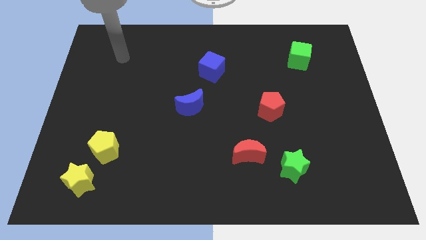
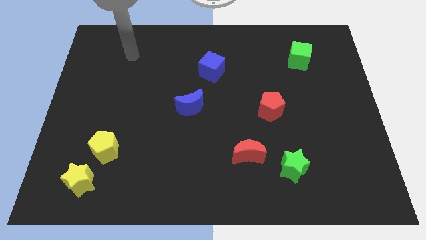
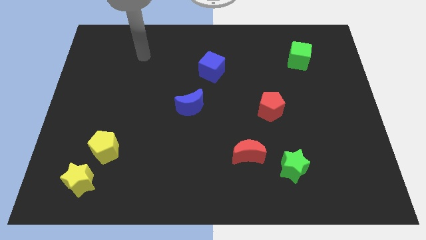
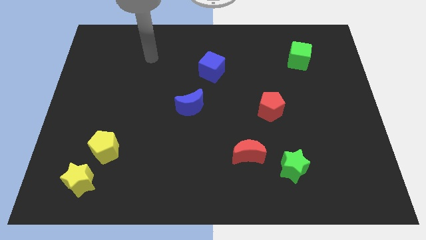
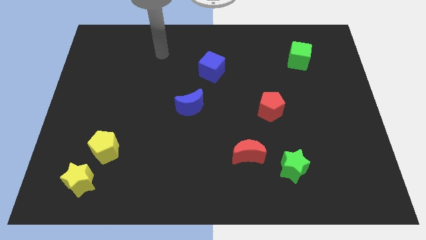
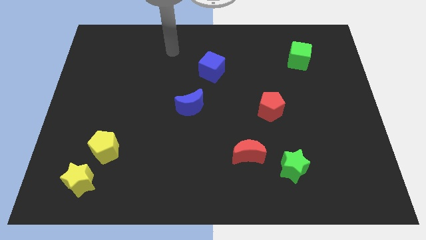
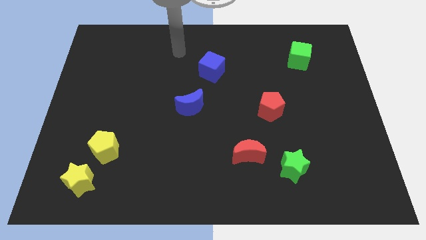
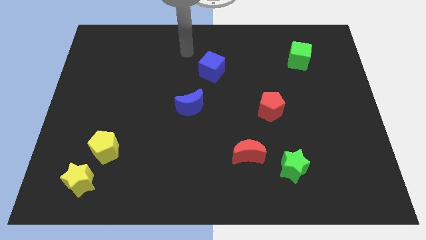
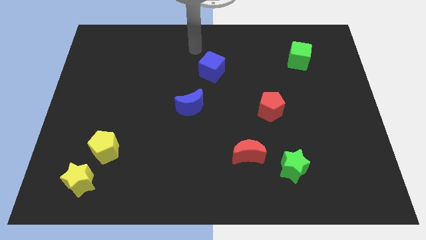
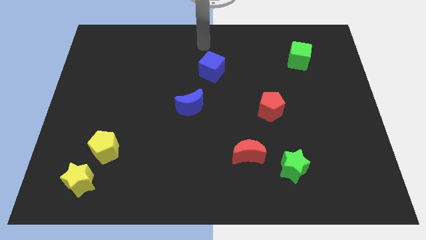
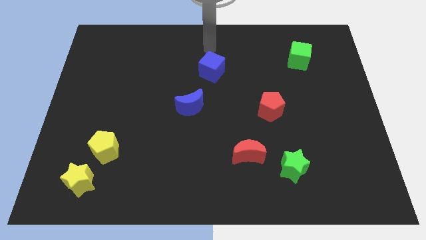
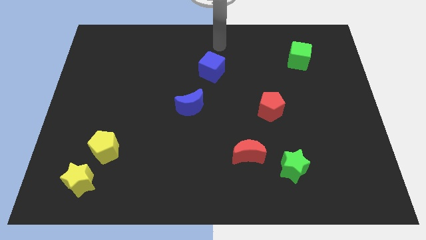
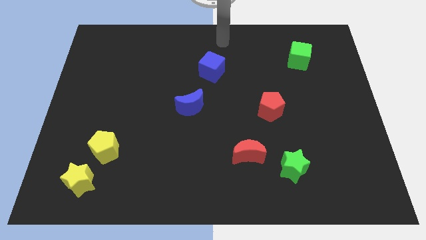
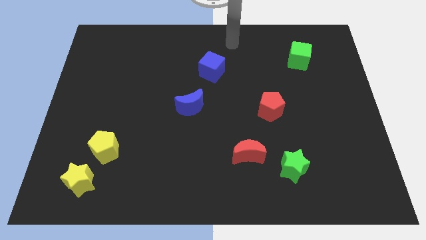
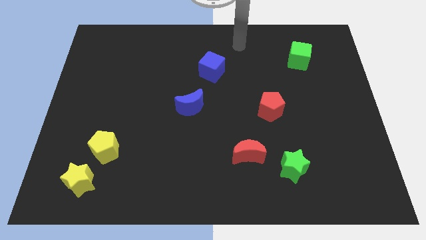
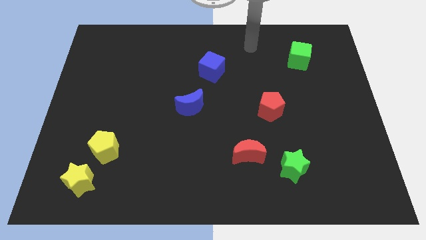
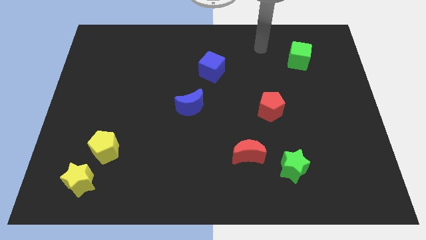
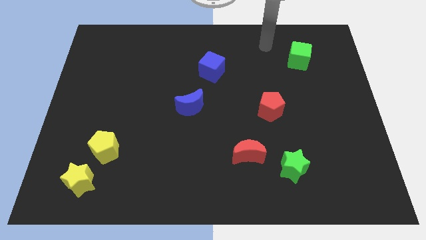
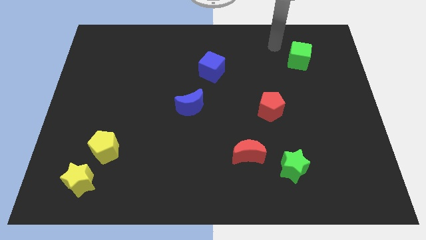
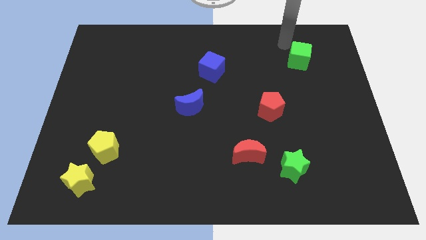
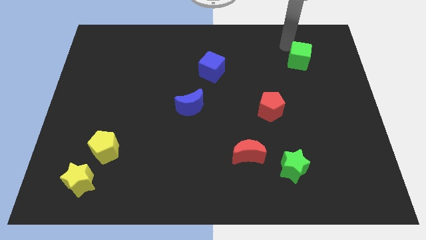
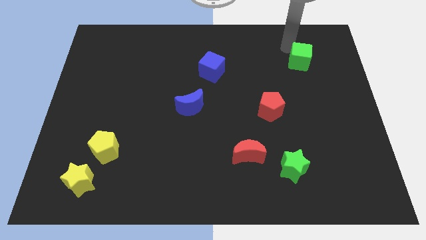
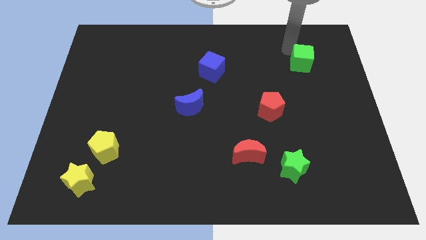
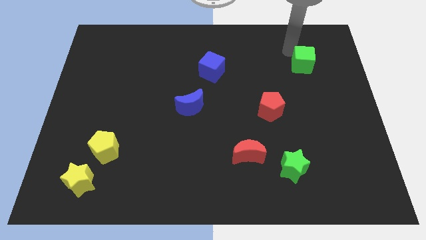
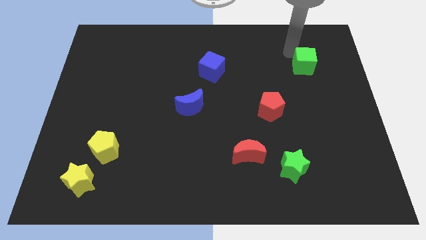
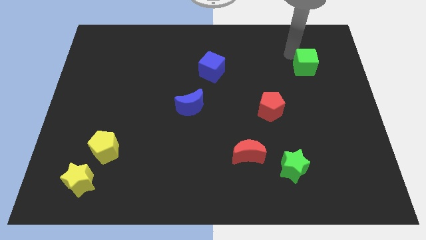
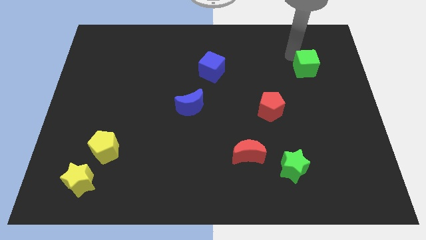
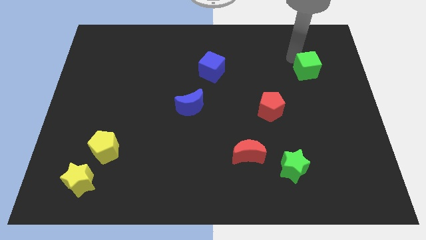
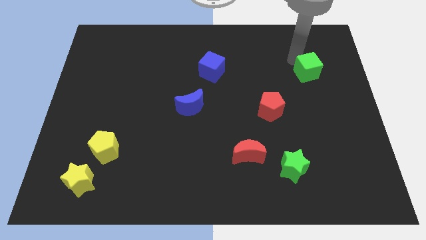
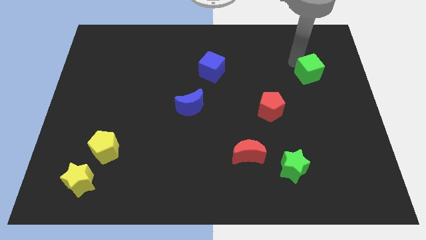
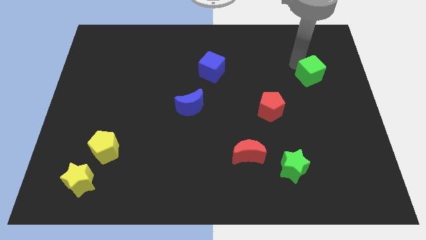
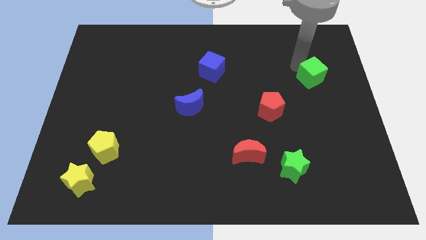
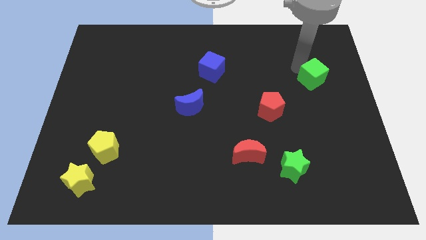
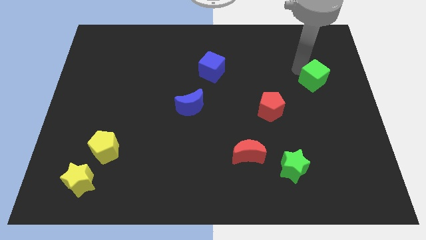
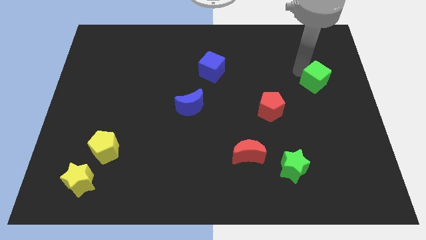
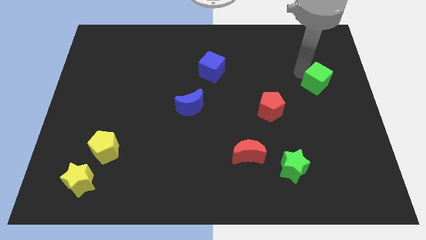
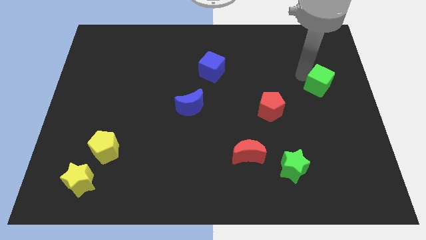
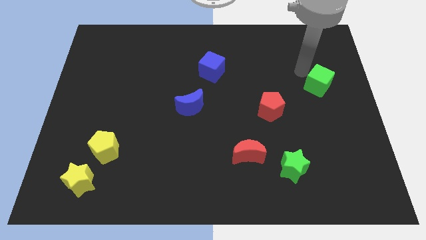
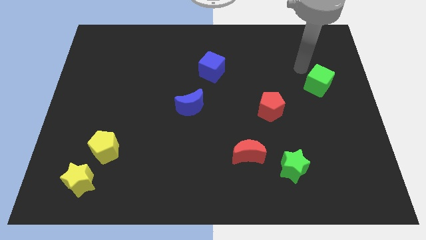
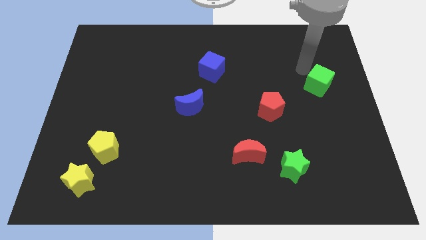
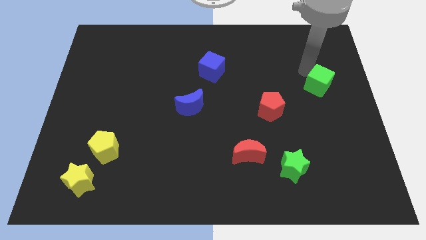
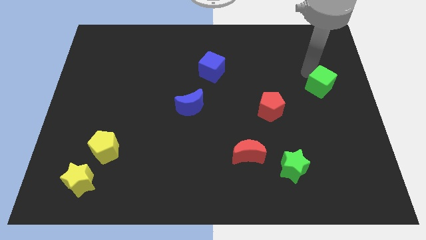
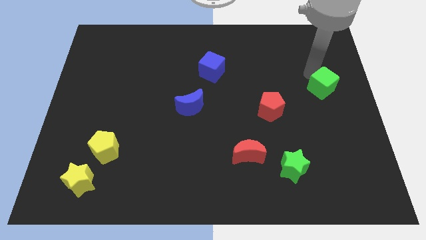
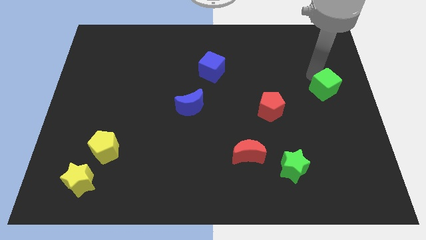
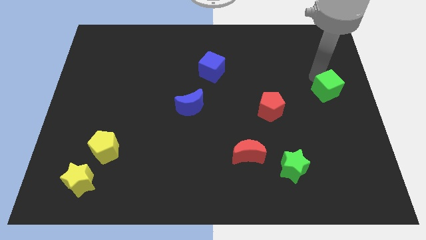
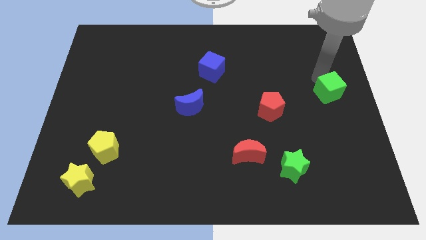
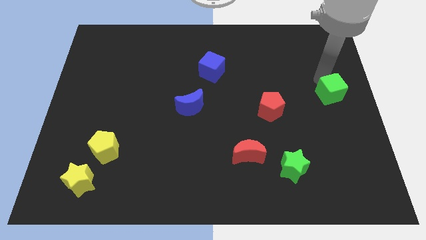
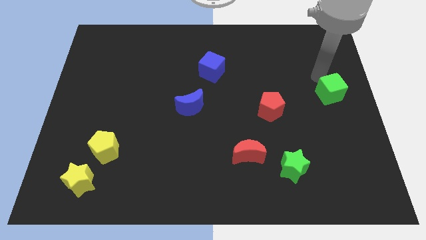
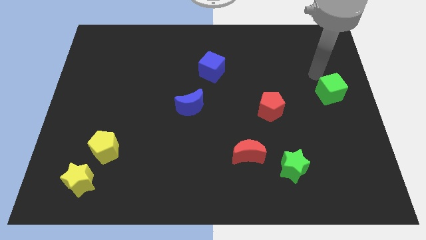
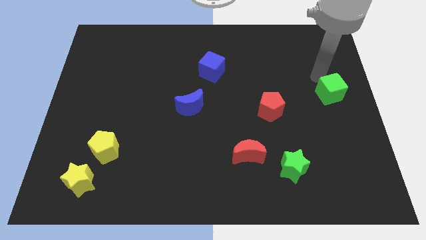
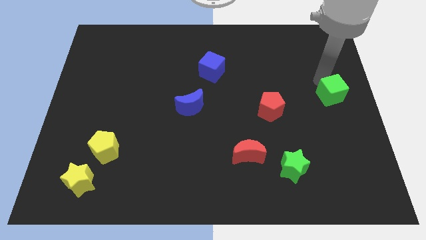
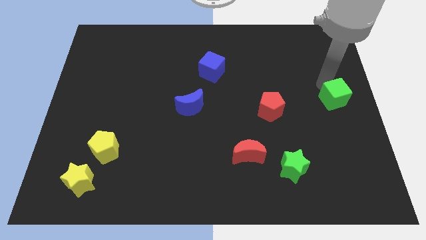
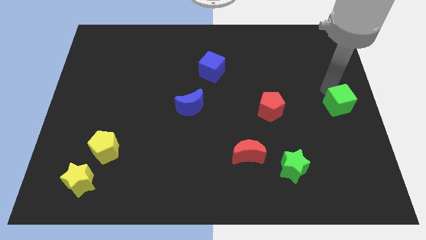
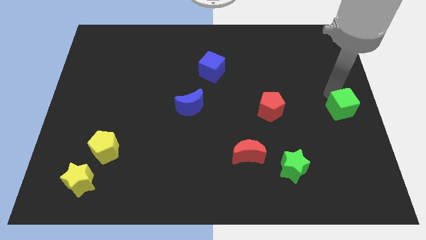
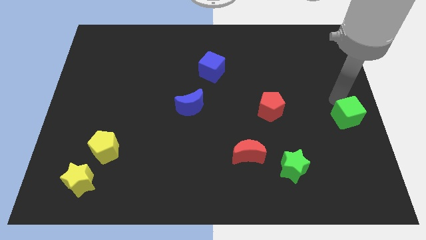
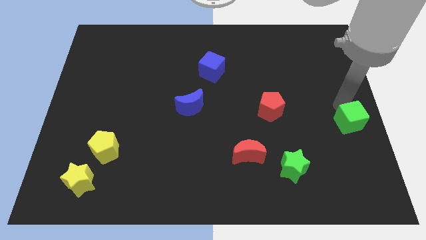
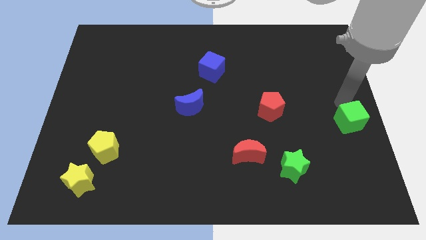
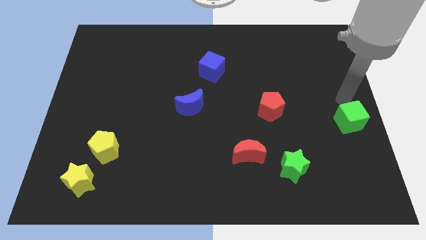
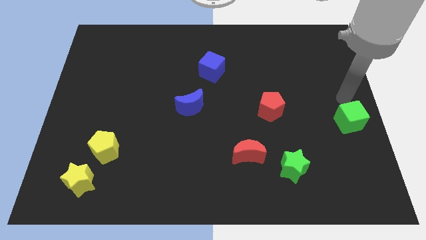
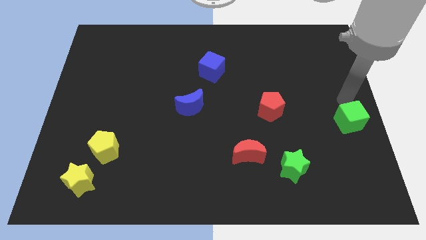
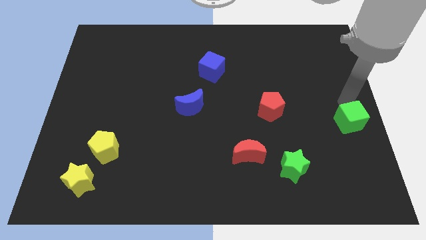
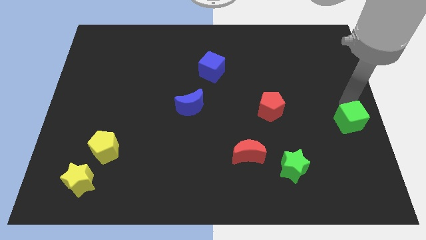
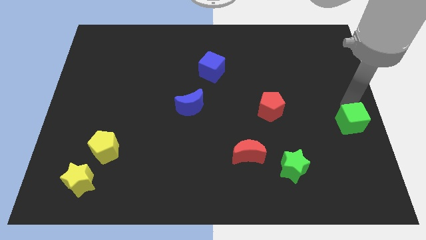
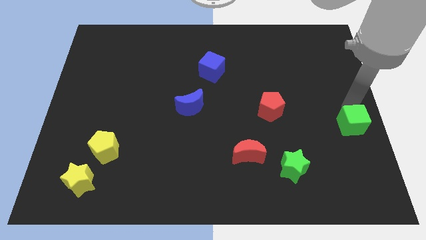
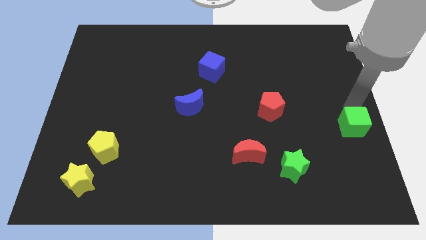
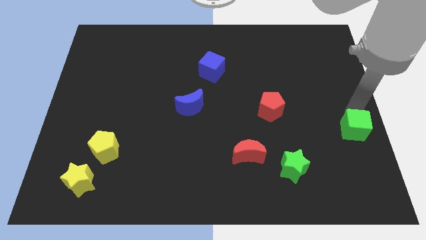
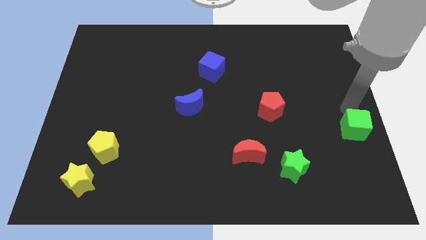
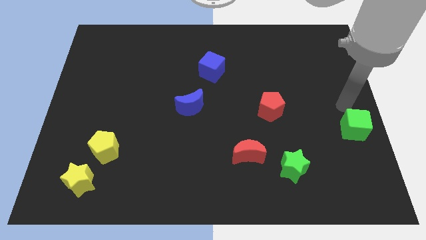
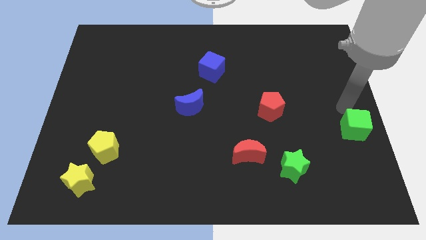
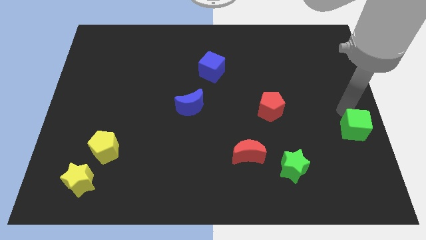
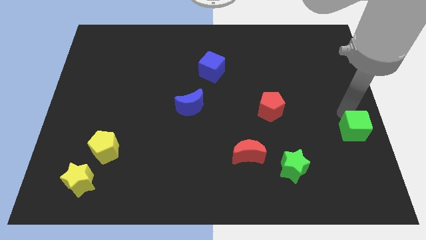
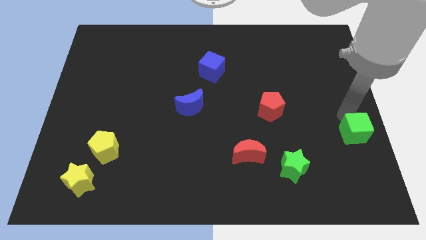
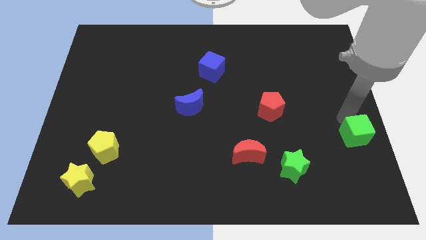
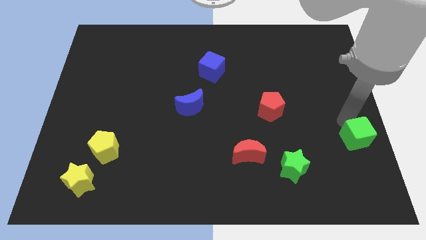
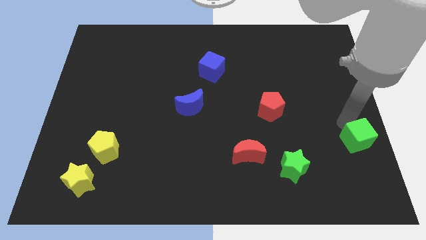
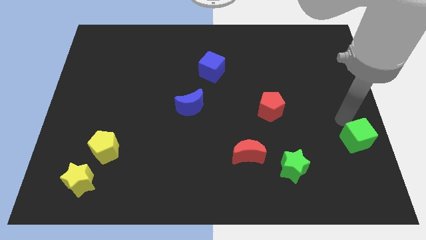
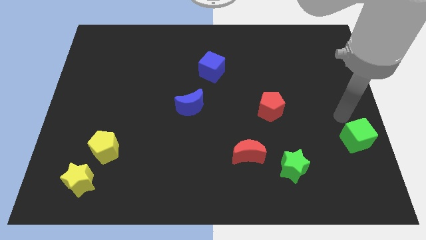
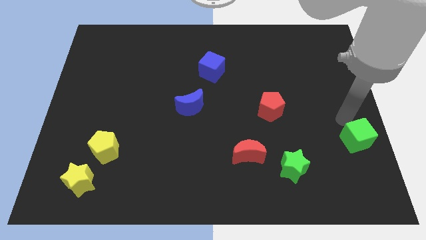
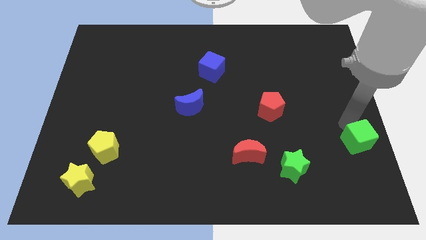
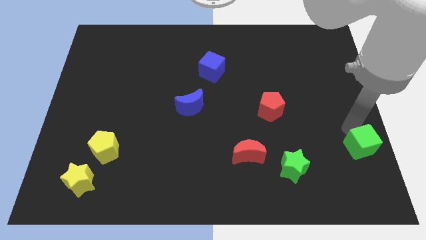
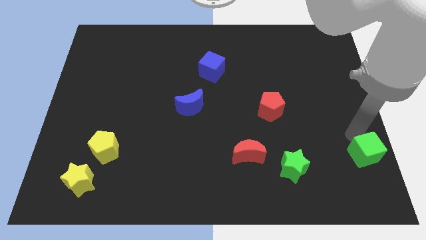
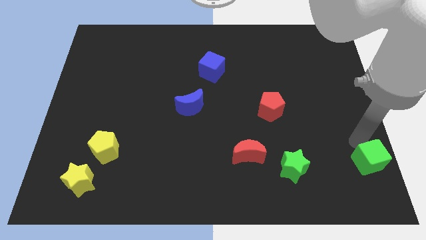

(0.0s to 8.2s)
put the green cube to the bottom right corner
